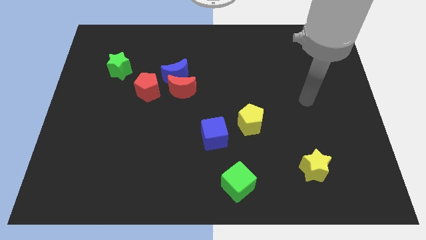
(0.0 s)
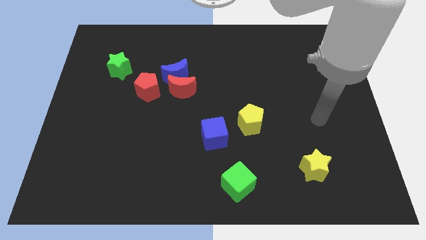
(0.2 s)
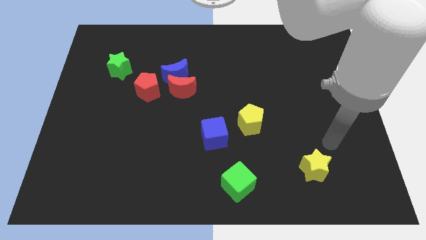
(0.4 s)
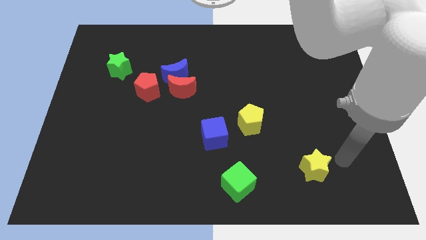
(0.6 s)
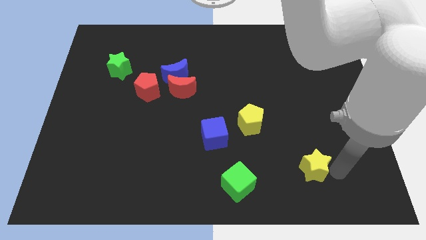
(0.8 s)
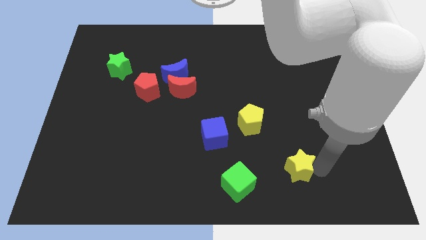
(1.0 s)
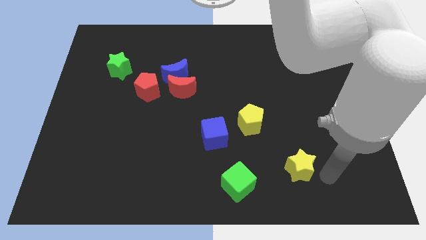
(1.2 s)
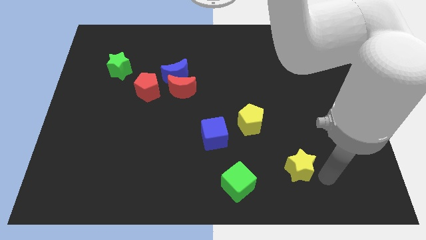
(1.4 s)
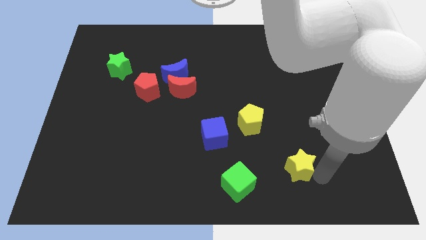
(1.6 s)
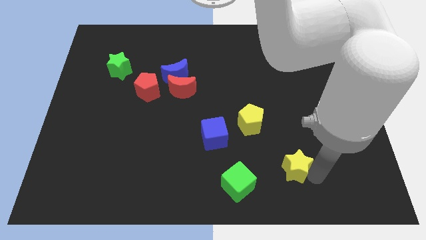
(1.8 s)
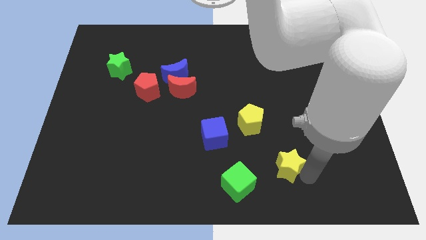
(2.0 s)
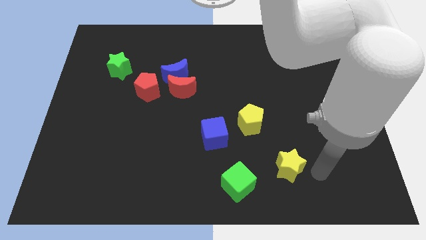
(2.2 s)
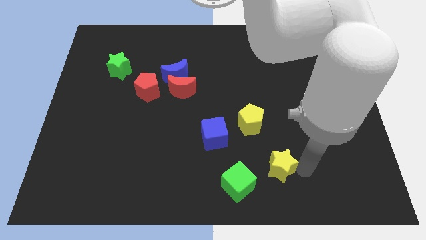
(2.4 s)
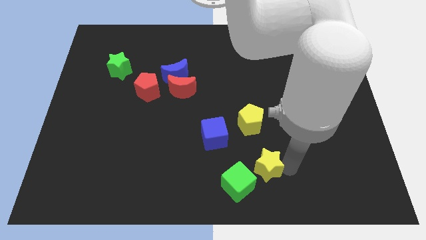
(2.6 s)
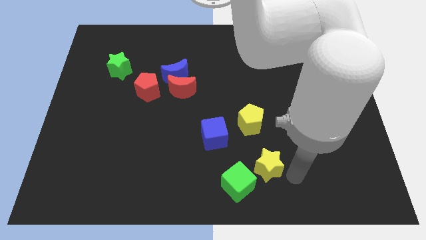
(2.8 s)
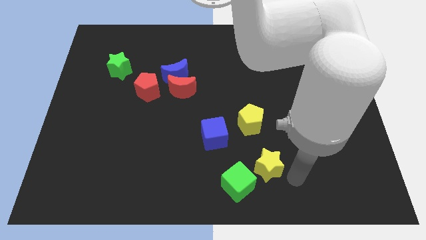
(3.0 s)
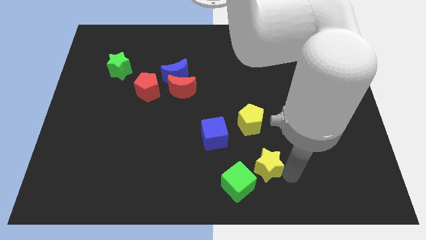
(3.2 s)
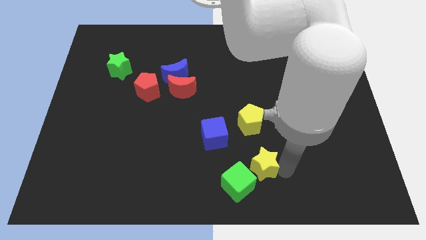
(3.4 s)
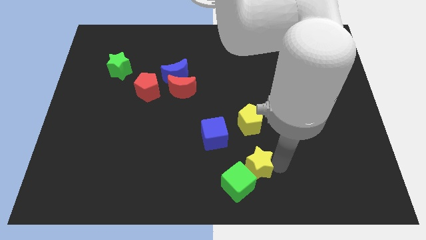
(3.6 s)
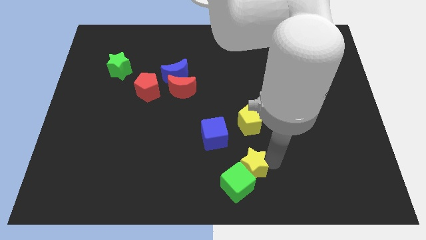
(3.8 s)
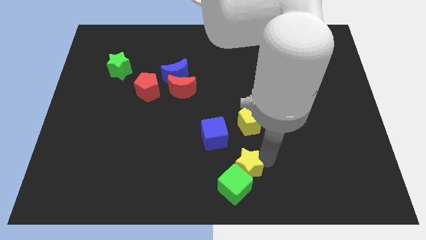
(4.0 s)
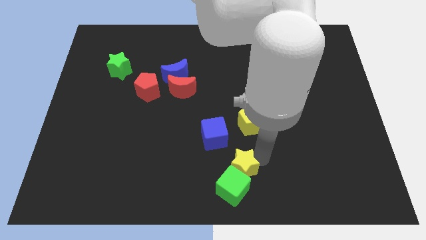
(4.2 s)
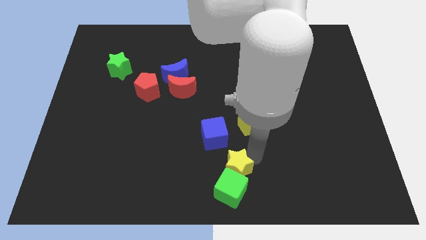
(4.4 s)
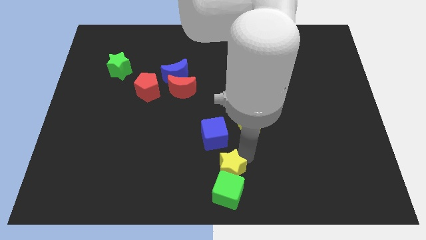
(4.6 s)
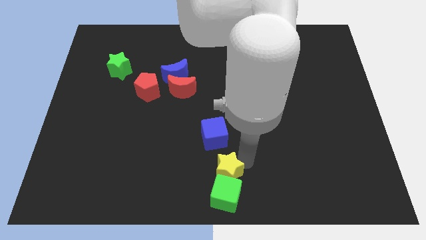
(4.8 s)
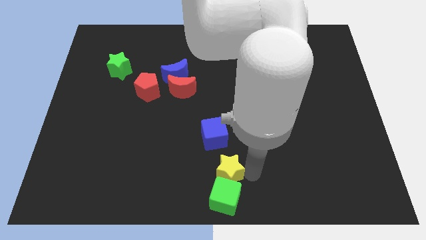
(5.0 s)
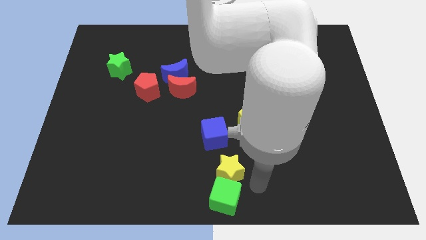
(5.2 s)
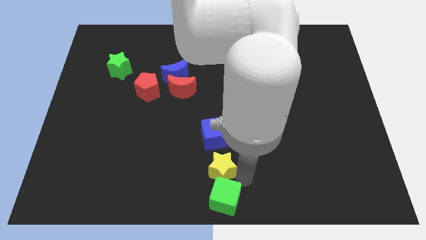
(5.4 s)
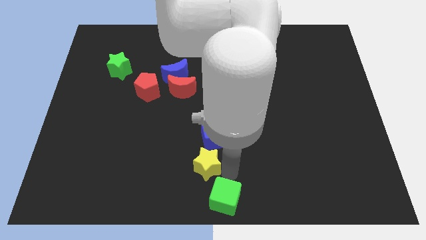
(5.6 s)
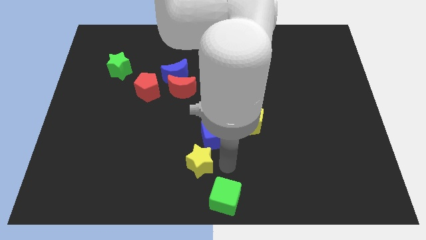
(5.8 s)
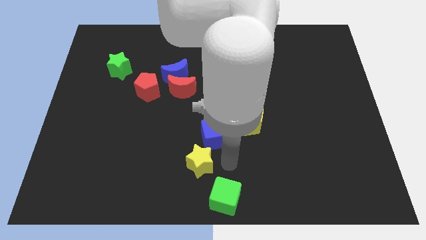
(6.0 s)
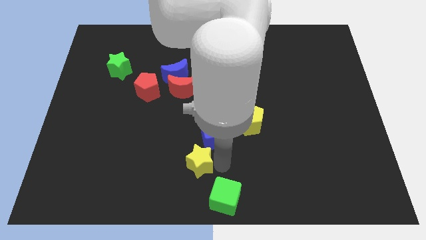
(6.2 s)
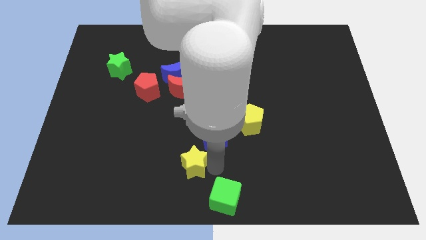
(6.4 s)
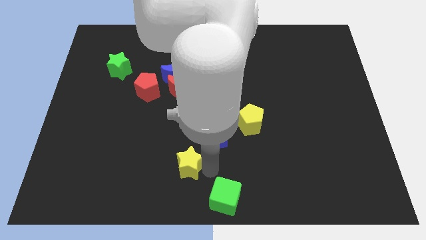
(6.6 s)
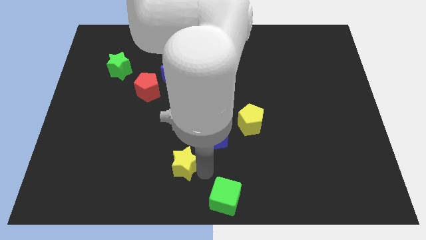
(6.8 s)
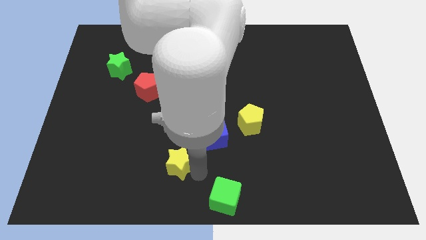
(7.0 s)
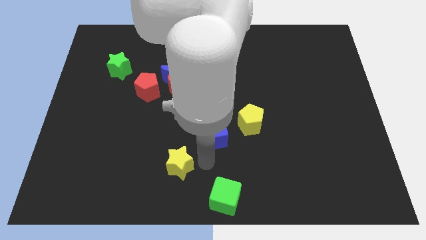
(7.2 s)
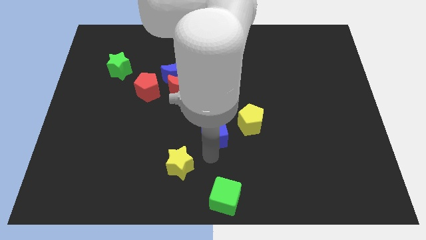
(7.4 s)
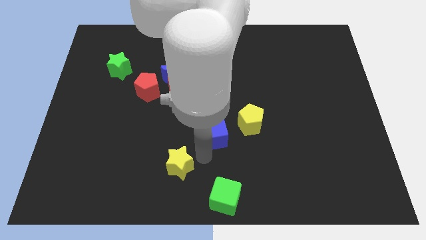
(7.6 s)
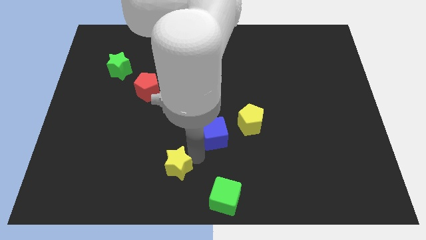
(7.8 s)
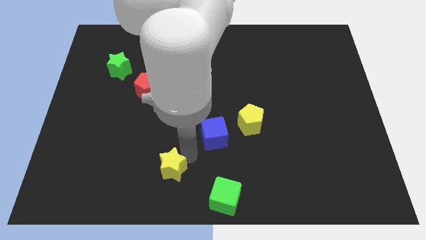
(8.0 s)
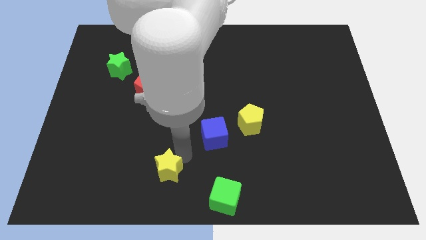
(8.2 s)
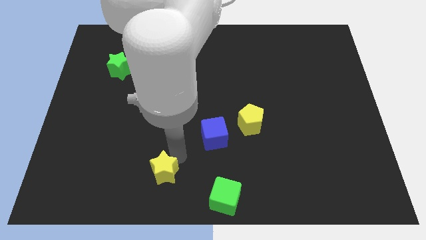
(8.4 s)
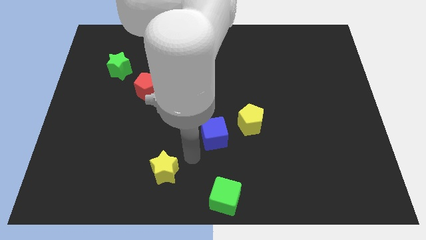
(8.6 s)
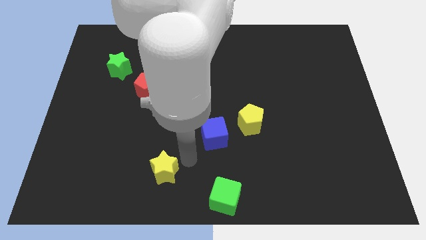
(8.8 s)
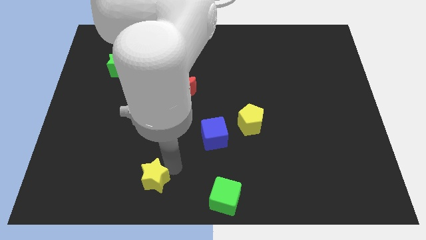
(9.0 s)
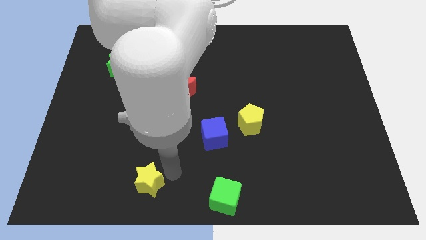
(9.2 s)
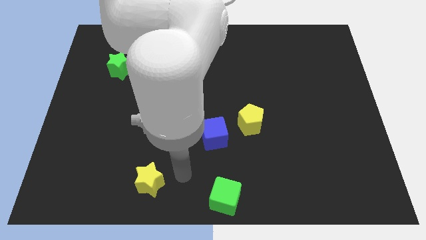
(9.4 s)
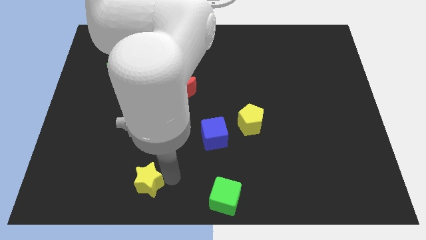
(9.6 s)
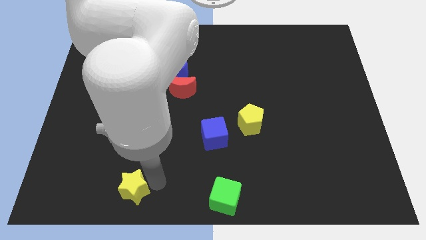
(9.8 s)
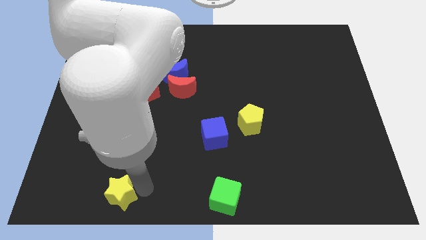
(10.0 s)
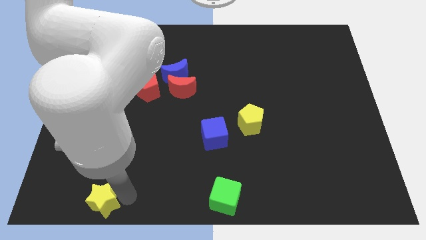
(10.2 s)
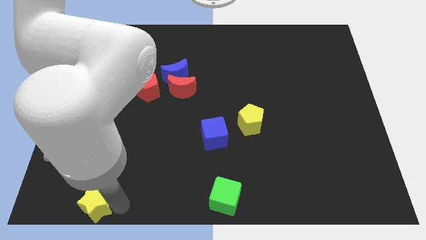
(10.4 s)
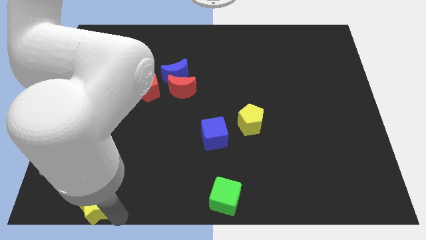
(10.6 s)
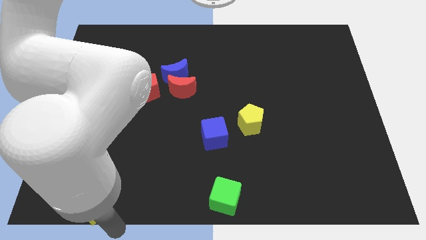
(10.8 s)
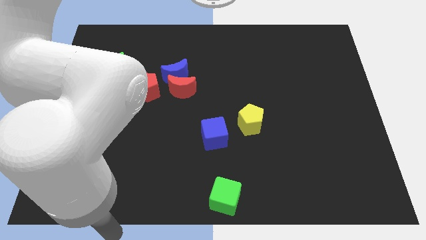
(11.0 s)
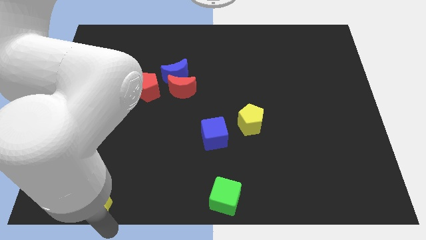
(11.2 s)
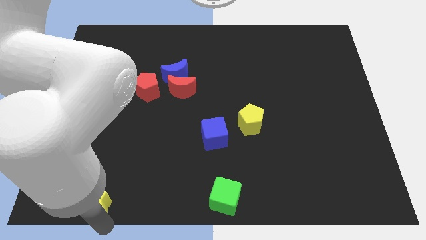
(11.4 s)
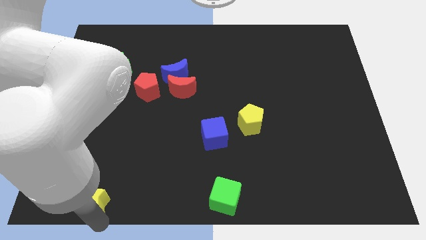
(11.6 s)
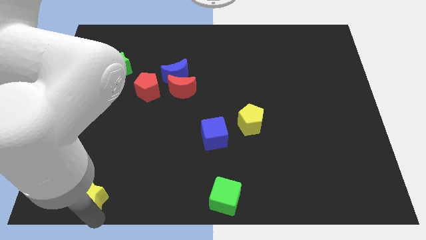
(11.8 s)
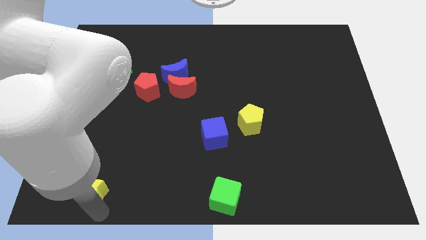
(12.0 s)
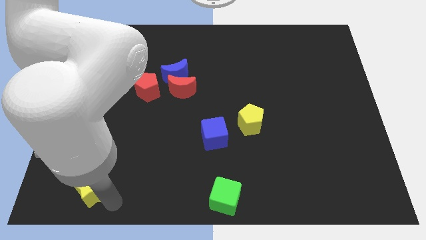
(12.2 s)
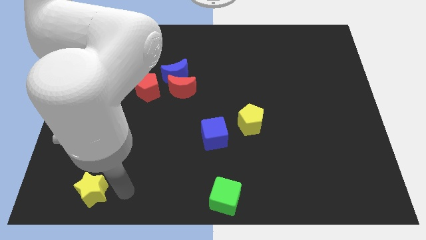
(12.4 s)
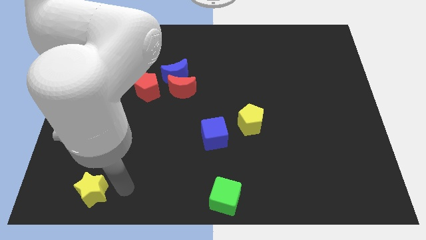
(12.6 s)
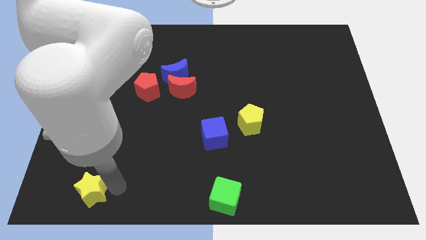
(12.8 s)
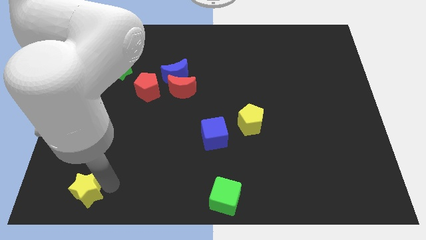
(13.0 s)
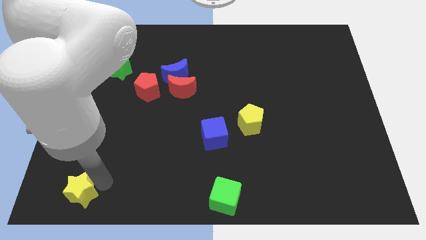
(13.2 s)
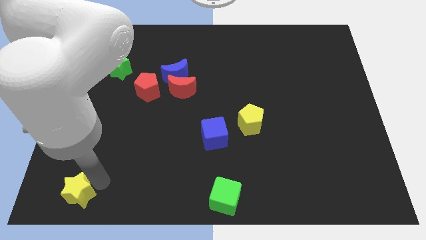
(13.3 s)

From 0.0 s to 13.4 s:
push the yellow star to the lower left corner
